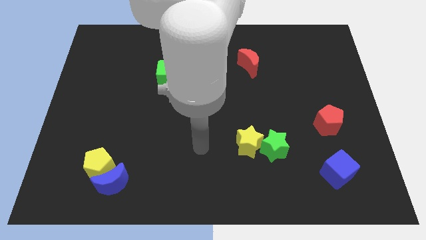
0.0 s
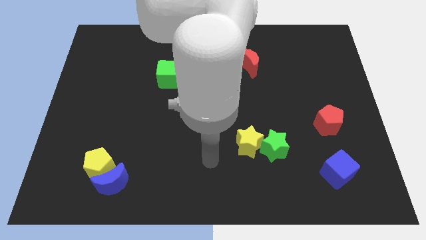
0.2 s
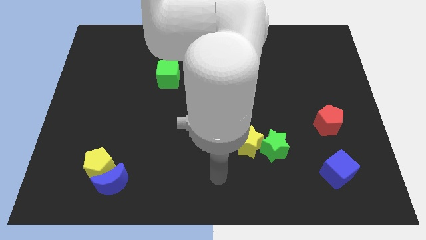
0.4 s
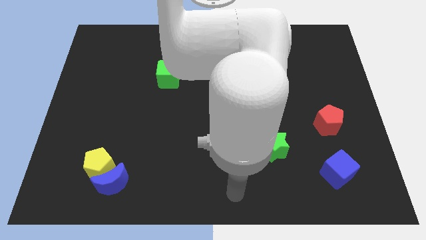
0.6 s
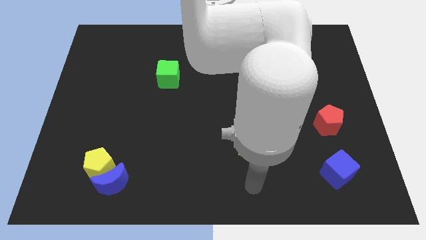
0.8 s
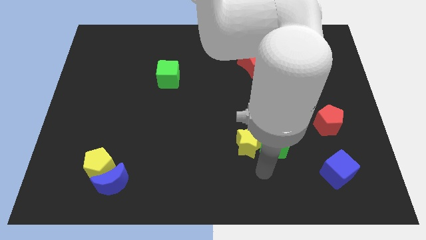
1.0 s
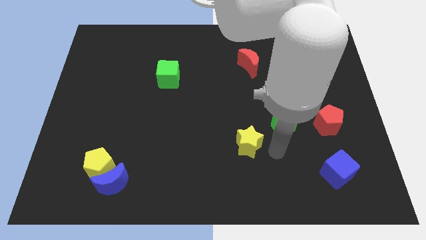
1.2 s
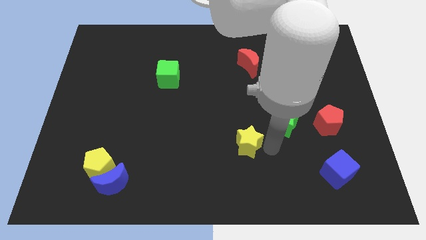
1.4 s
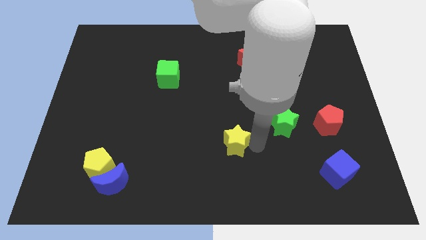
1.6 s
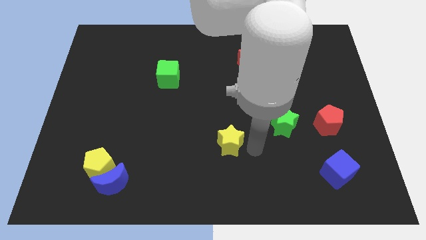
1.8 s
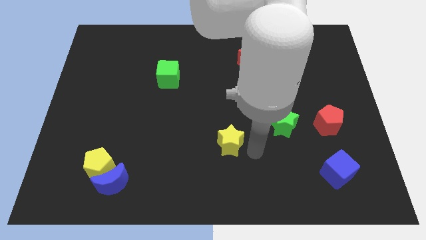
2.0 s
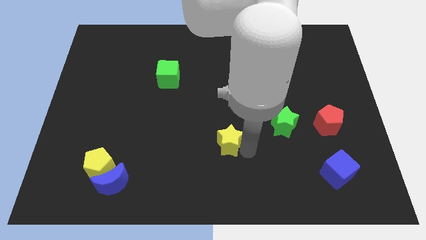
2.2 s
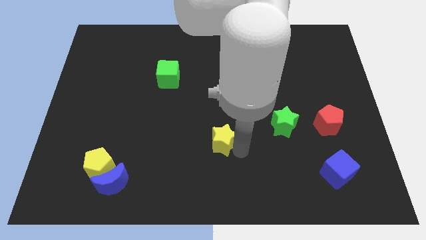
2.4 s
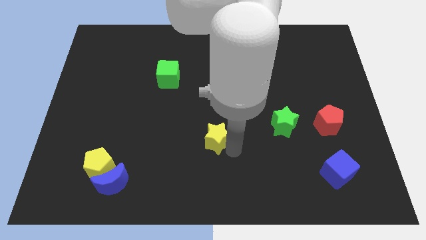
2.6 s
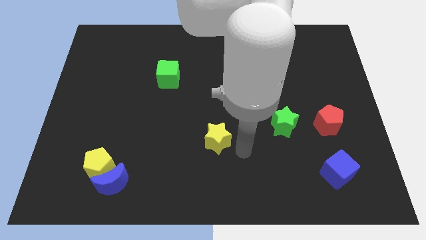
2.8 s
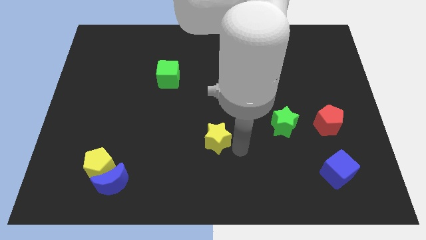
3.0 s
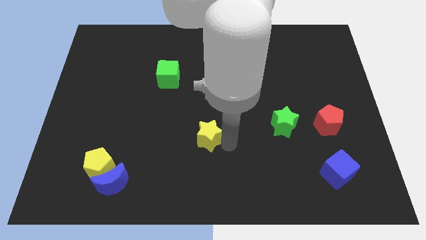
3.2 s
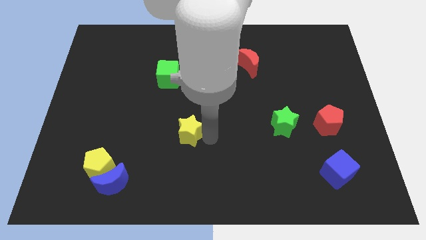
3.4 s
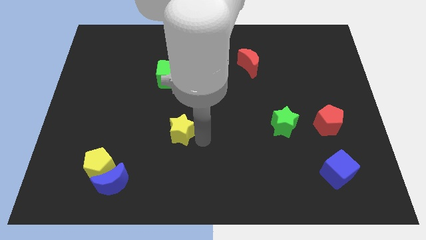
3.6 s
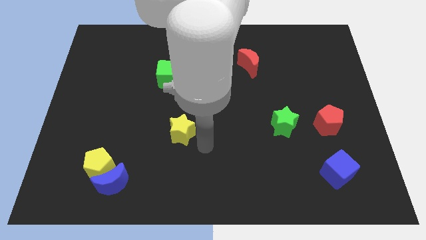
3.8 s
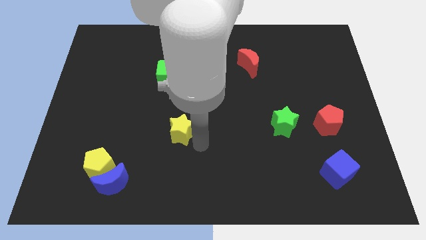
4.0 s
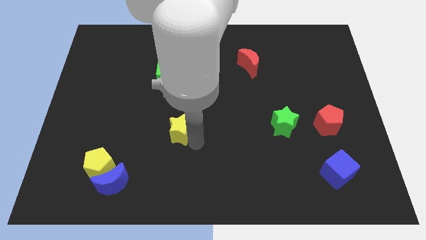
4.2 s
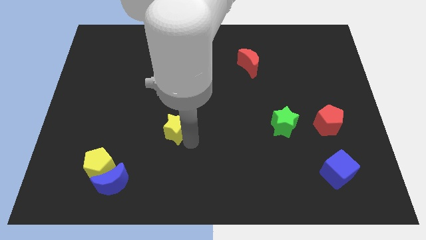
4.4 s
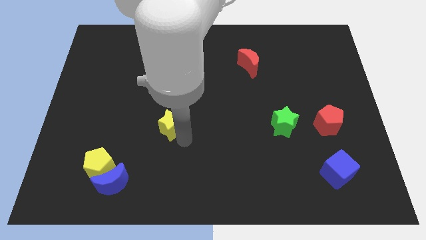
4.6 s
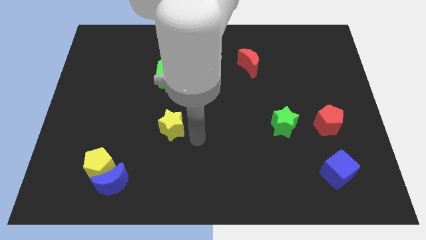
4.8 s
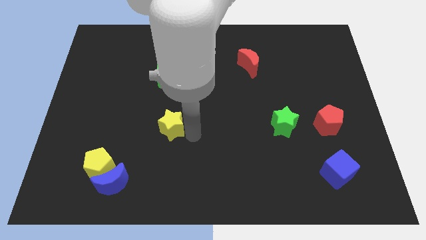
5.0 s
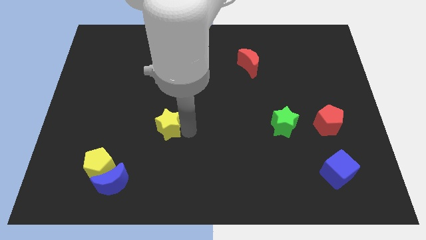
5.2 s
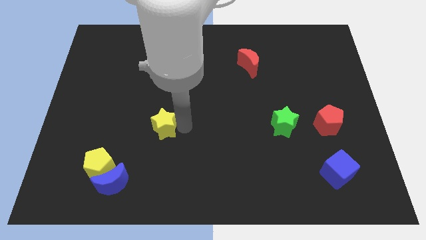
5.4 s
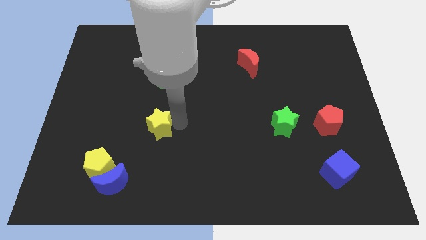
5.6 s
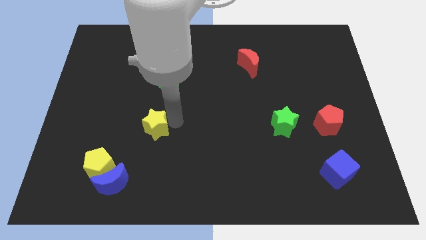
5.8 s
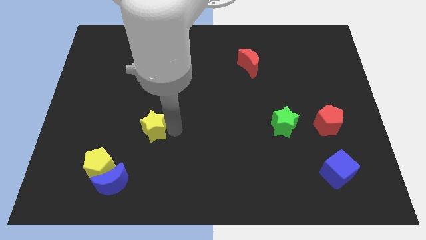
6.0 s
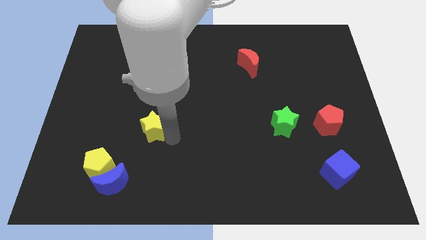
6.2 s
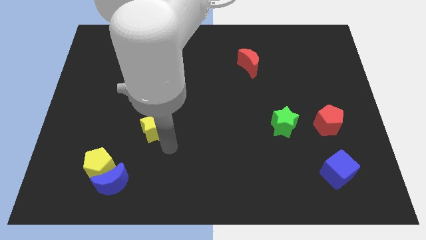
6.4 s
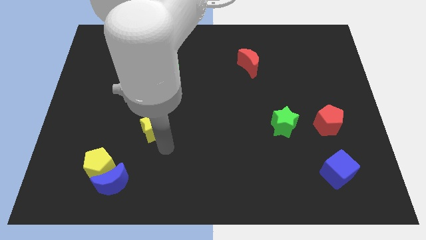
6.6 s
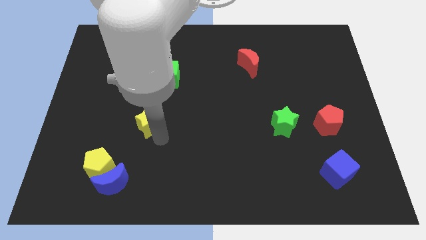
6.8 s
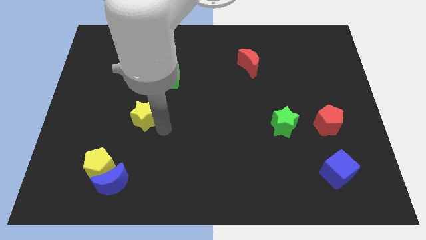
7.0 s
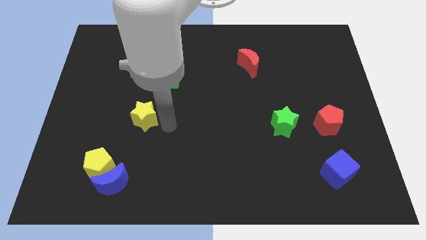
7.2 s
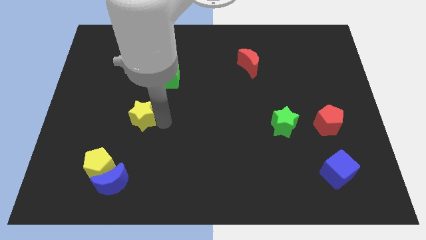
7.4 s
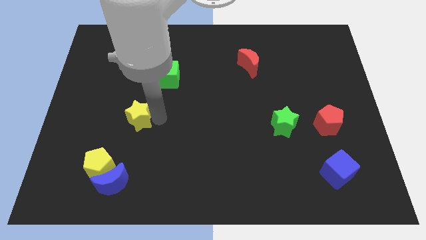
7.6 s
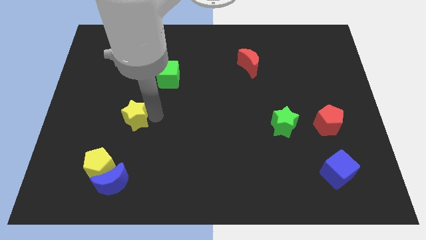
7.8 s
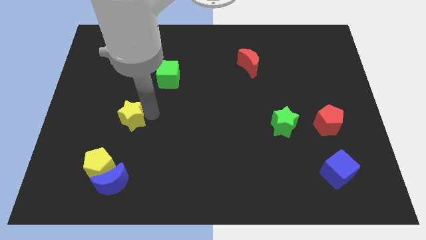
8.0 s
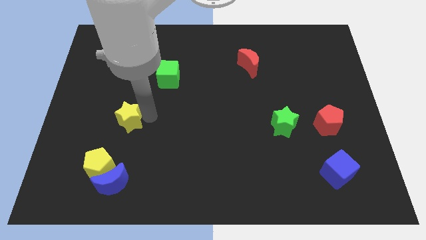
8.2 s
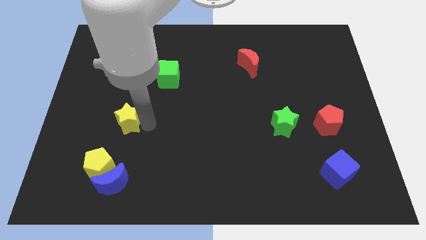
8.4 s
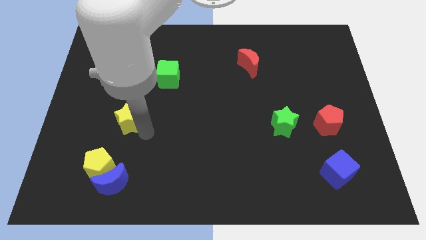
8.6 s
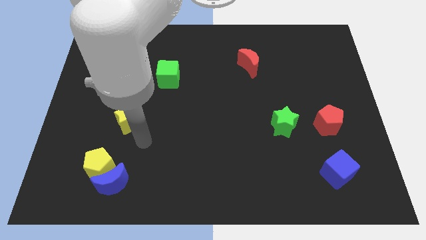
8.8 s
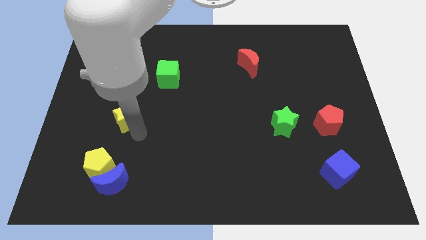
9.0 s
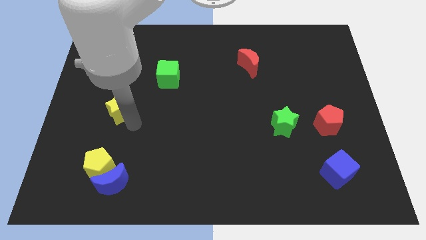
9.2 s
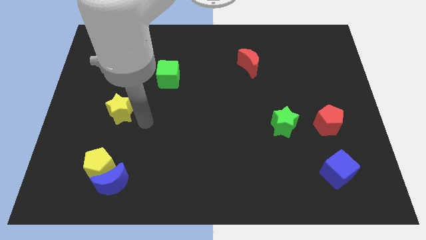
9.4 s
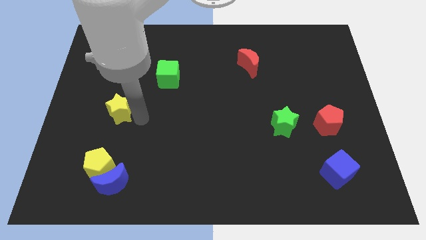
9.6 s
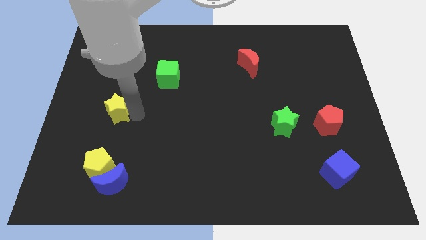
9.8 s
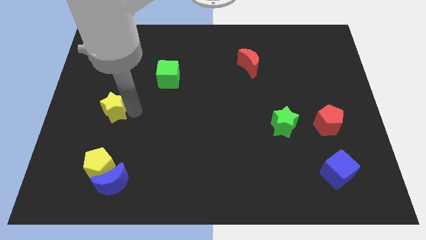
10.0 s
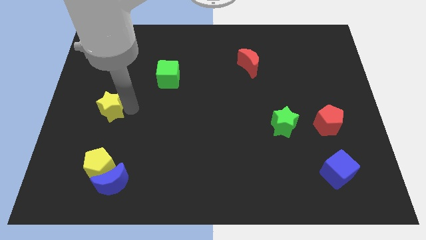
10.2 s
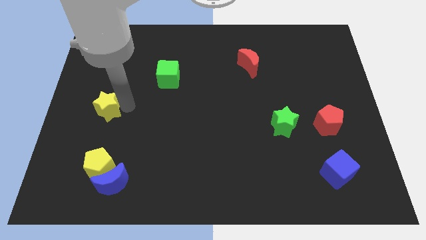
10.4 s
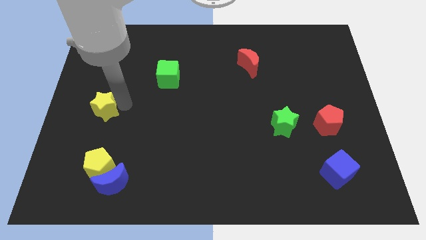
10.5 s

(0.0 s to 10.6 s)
push the yellow star to the left side of the board

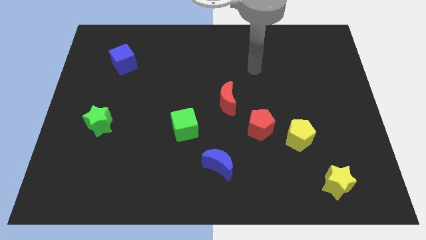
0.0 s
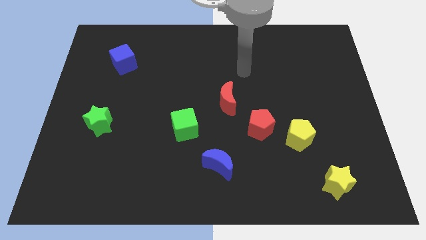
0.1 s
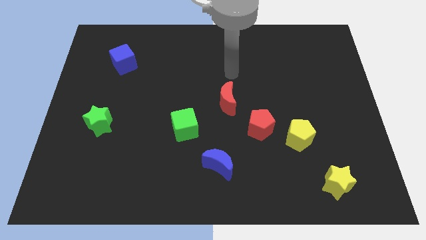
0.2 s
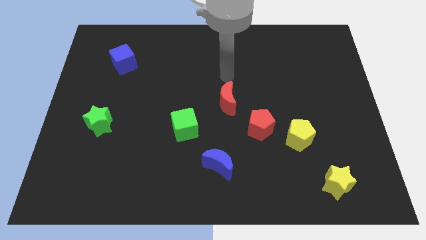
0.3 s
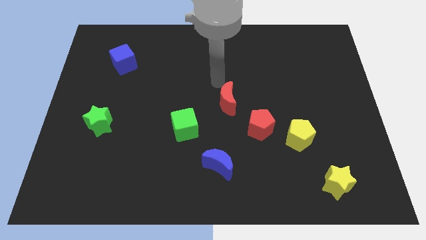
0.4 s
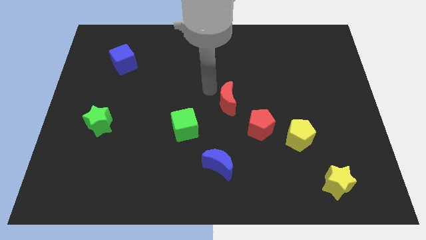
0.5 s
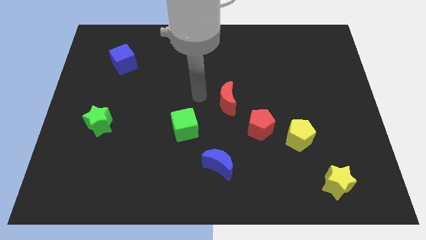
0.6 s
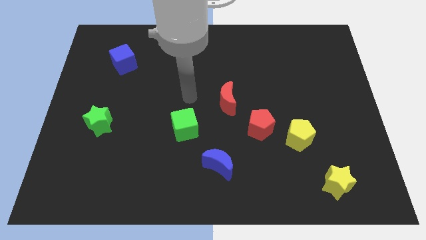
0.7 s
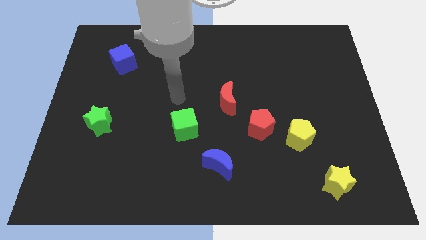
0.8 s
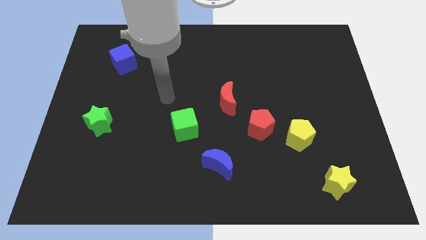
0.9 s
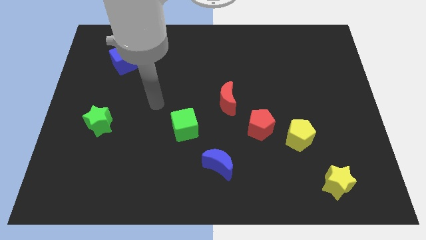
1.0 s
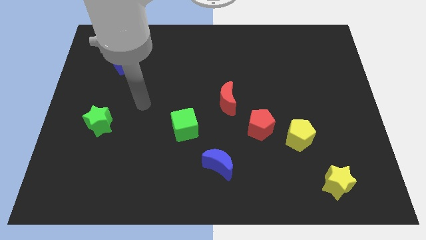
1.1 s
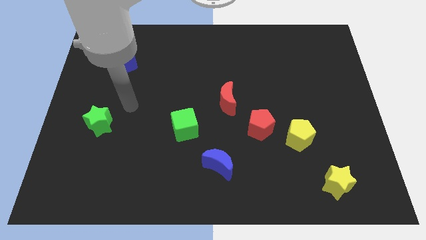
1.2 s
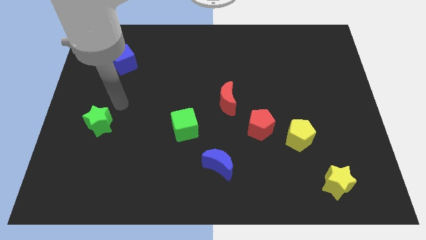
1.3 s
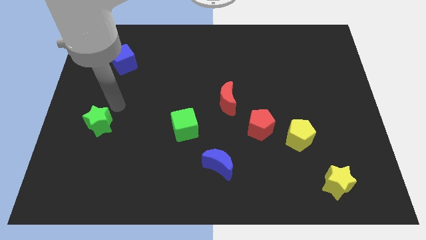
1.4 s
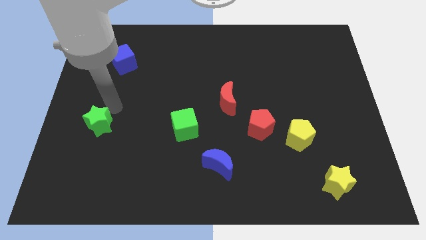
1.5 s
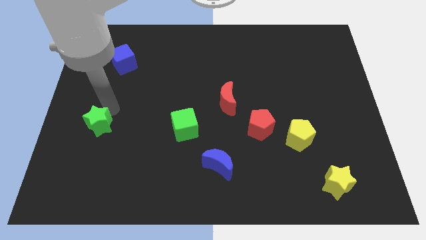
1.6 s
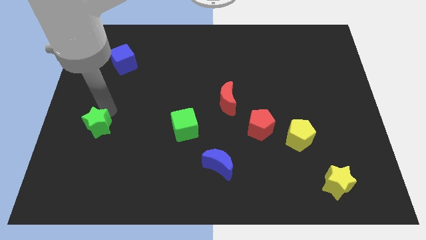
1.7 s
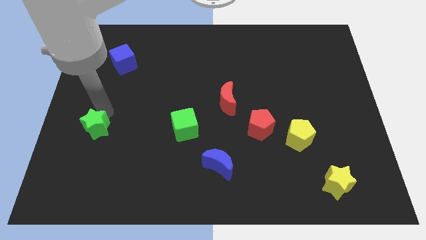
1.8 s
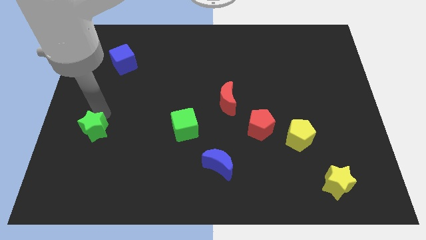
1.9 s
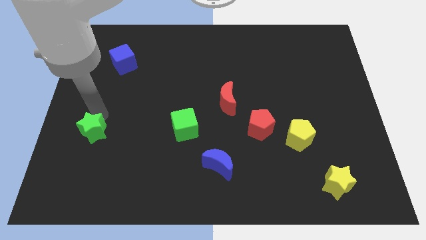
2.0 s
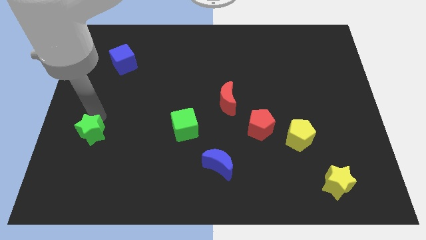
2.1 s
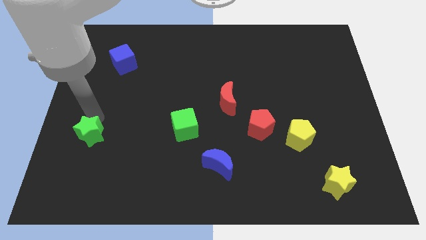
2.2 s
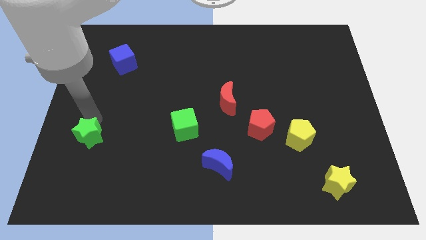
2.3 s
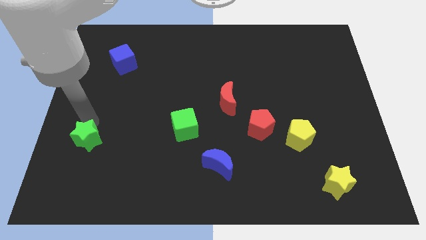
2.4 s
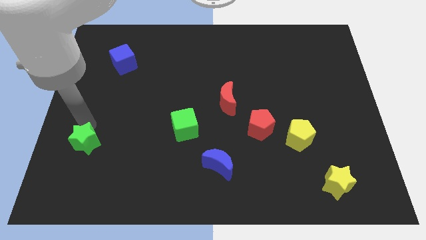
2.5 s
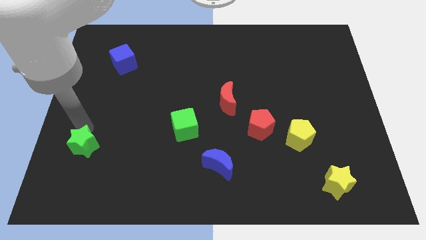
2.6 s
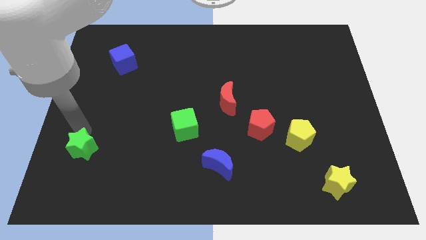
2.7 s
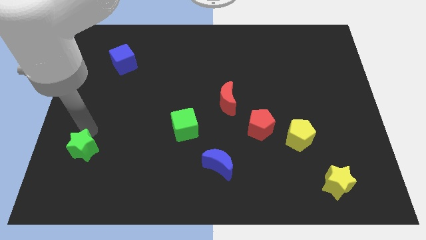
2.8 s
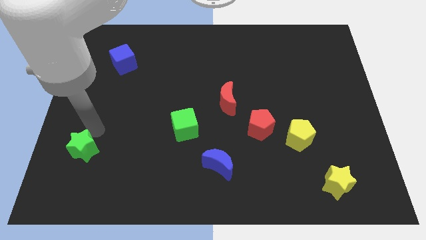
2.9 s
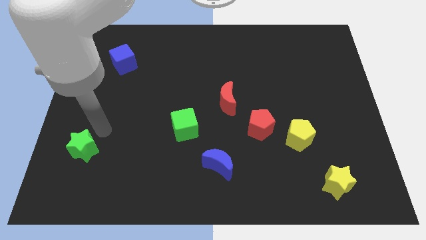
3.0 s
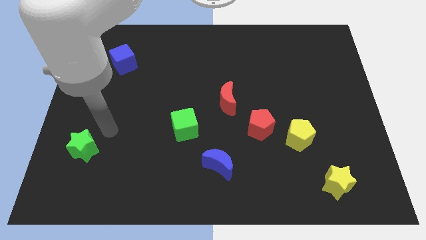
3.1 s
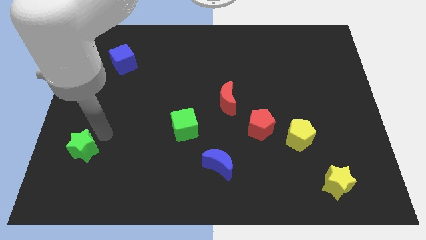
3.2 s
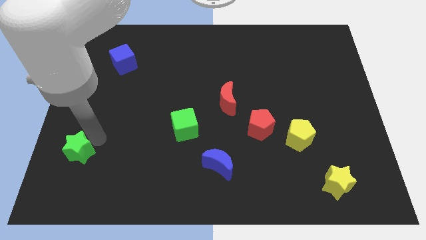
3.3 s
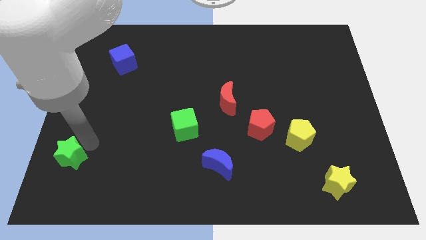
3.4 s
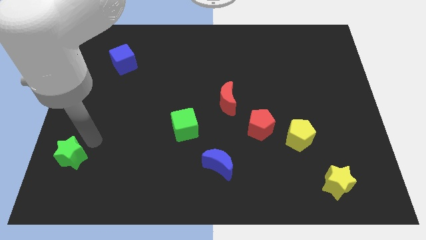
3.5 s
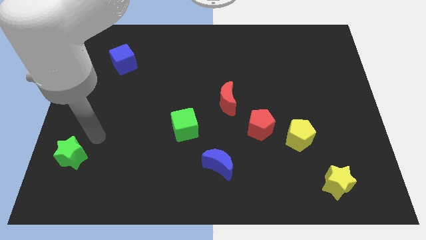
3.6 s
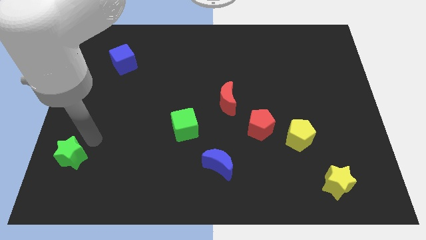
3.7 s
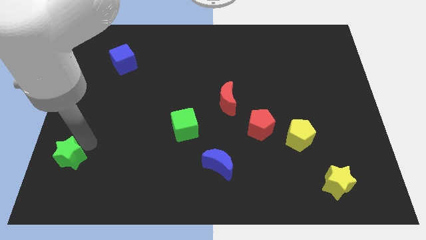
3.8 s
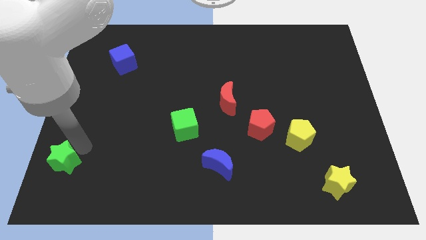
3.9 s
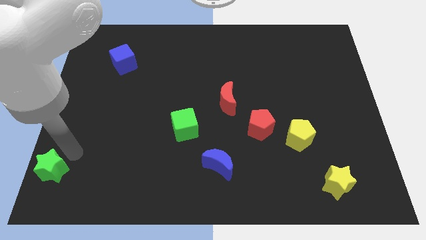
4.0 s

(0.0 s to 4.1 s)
push the green star to the bottom left of the board
